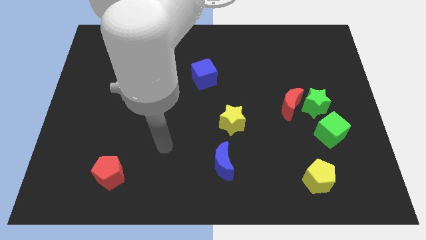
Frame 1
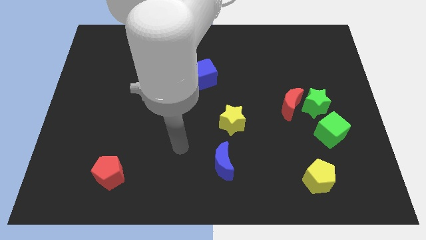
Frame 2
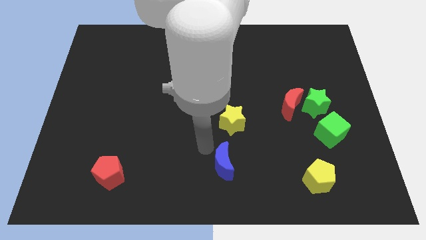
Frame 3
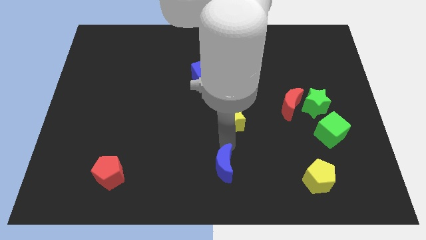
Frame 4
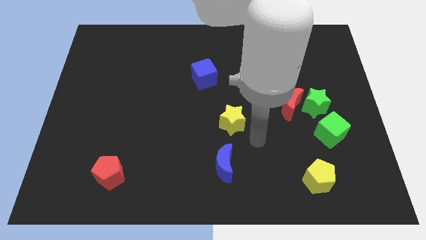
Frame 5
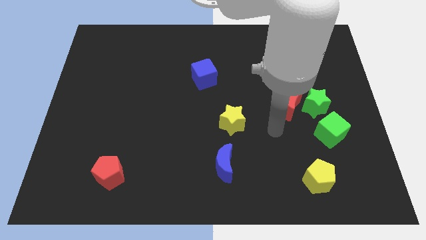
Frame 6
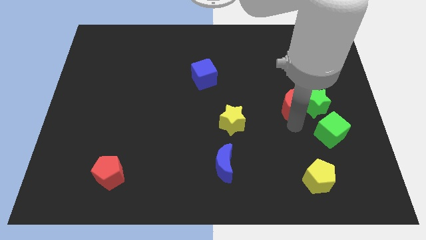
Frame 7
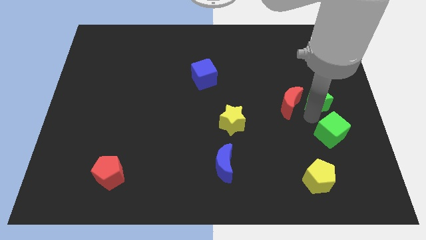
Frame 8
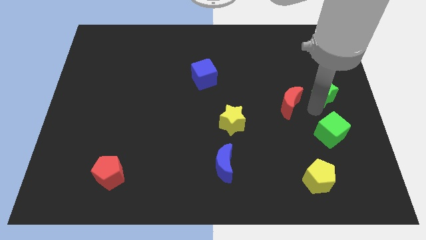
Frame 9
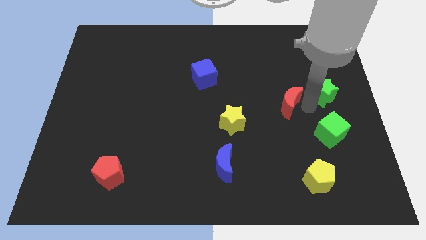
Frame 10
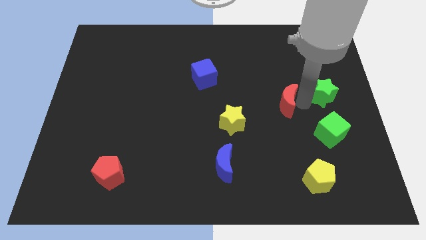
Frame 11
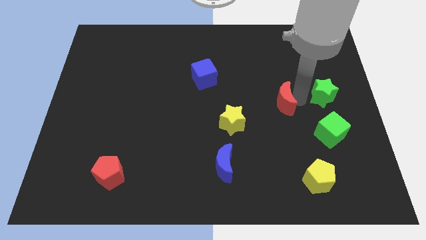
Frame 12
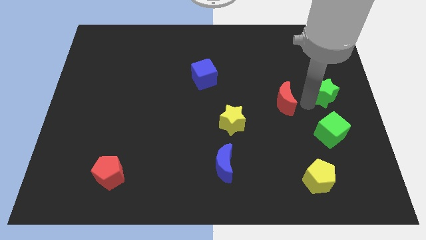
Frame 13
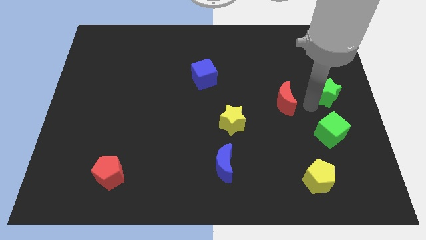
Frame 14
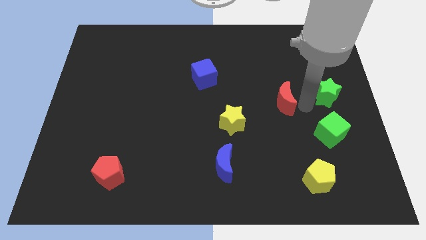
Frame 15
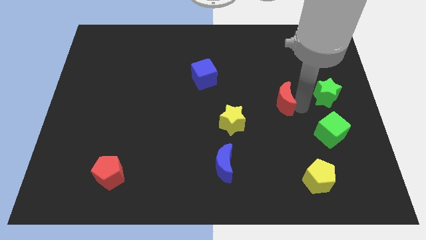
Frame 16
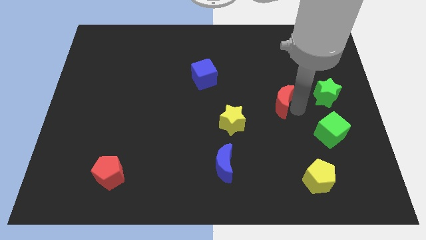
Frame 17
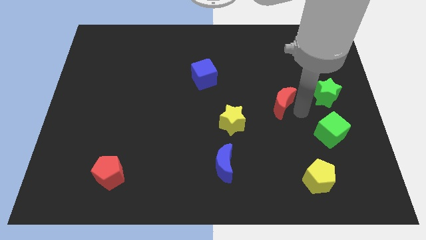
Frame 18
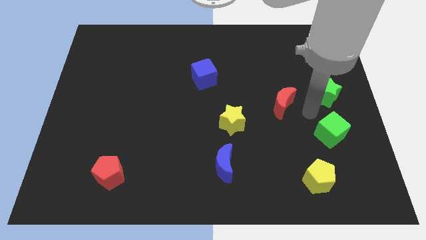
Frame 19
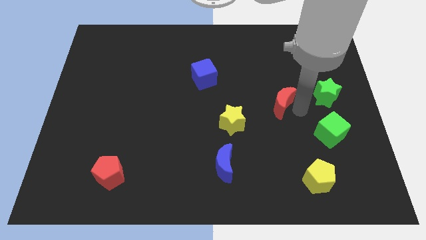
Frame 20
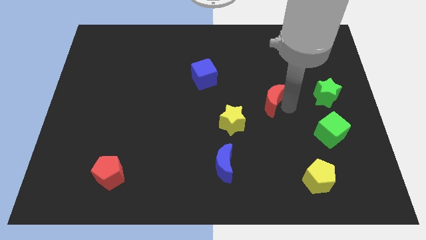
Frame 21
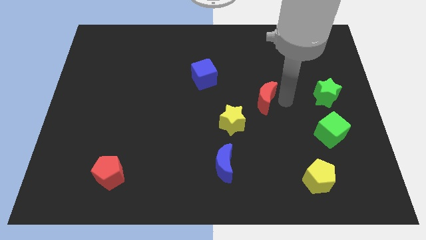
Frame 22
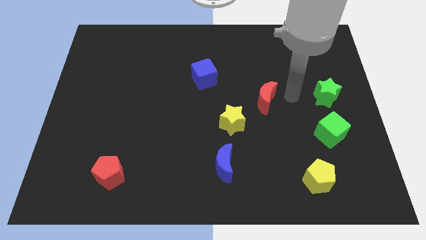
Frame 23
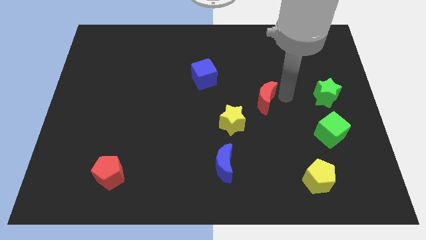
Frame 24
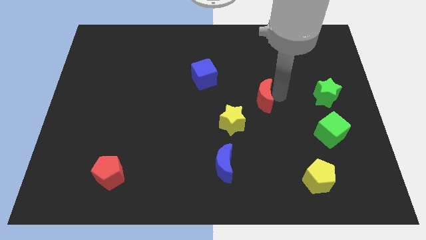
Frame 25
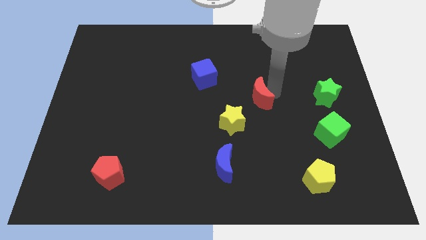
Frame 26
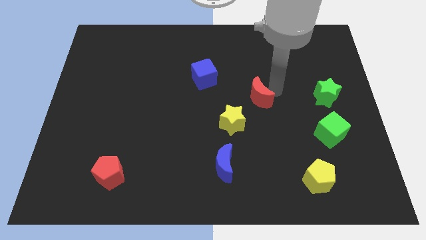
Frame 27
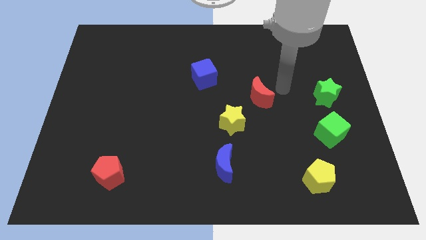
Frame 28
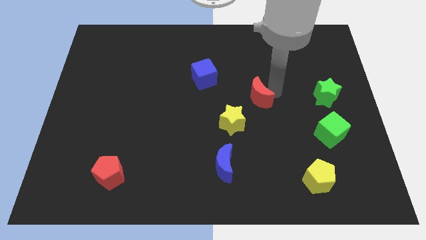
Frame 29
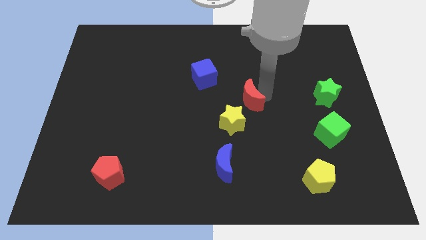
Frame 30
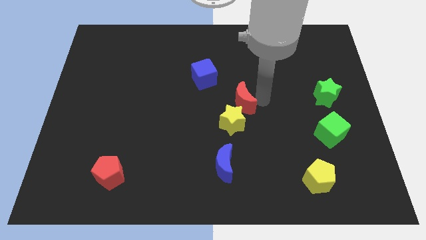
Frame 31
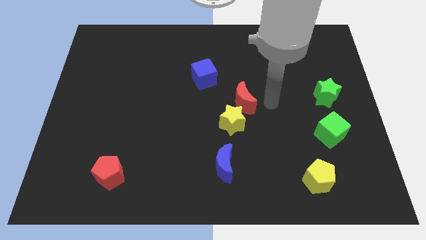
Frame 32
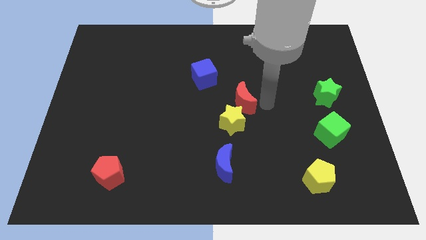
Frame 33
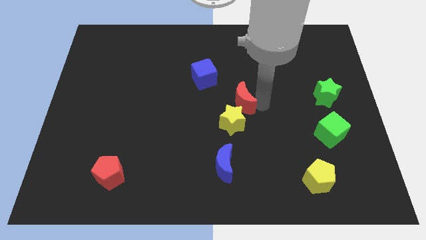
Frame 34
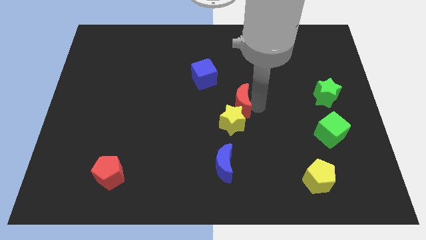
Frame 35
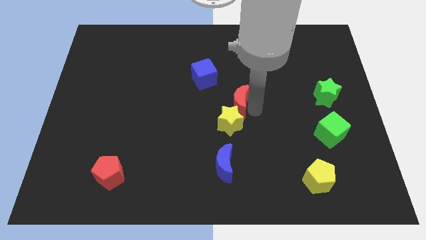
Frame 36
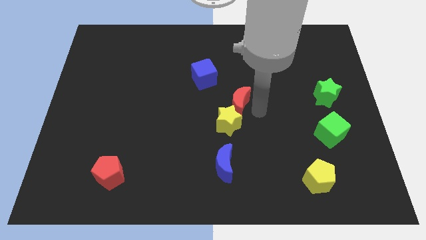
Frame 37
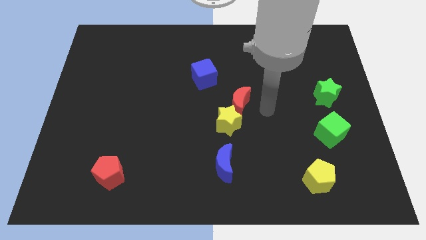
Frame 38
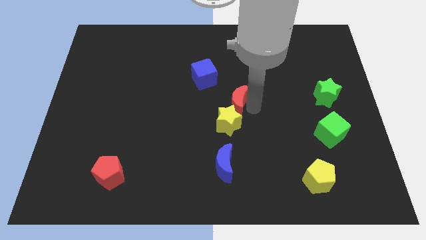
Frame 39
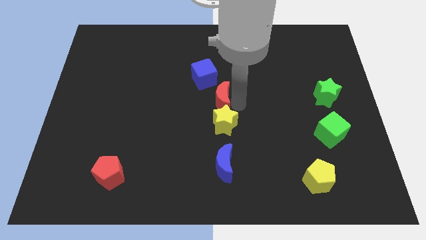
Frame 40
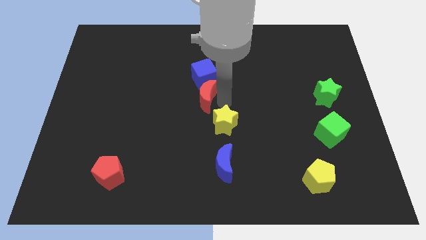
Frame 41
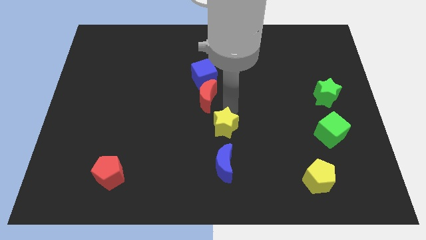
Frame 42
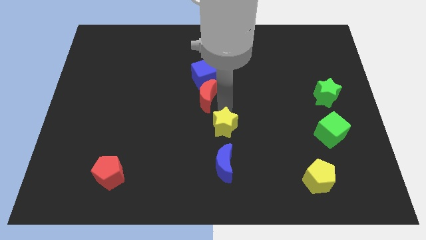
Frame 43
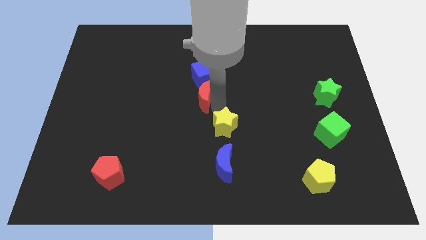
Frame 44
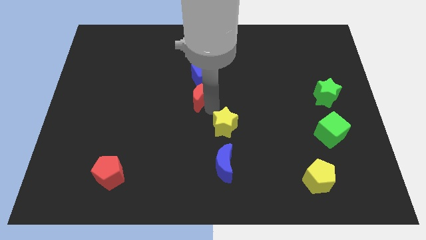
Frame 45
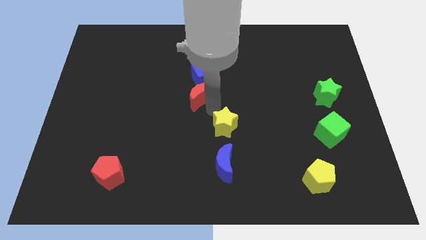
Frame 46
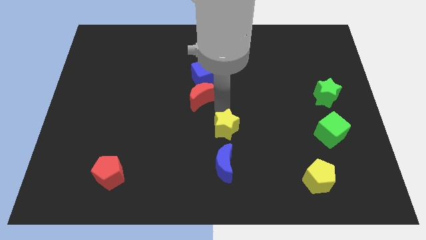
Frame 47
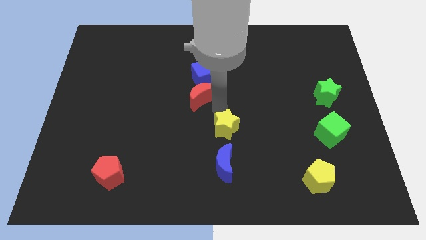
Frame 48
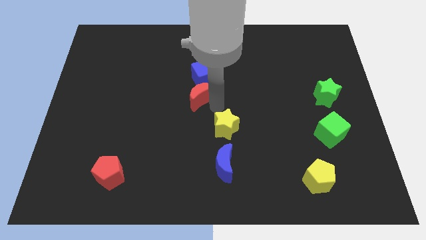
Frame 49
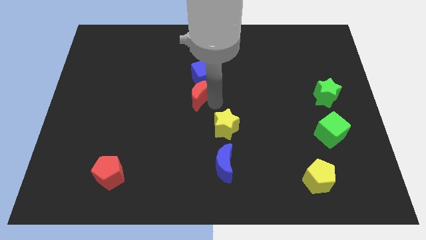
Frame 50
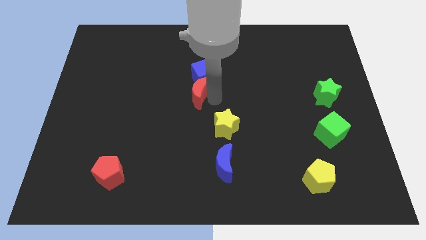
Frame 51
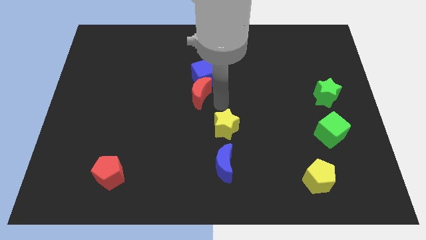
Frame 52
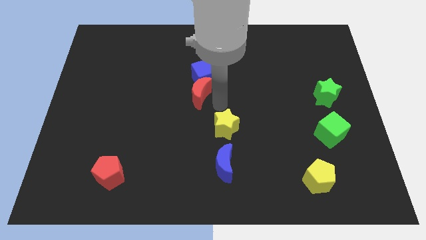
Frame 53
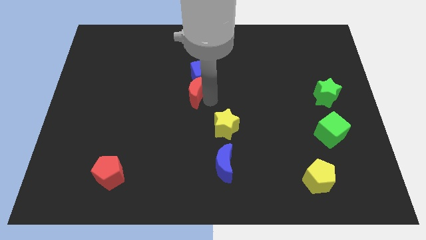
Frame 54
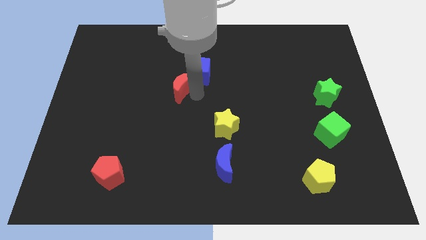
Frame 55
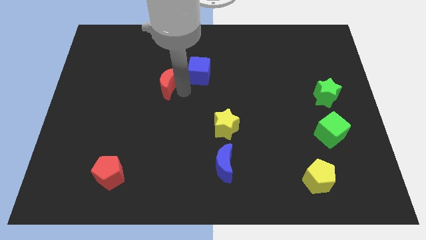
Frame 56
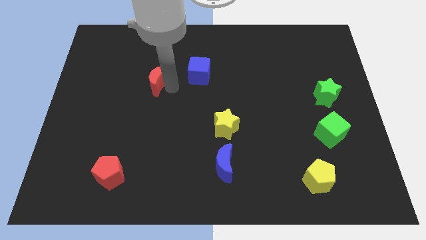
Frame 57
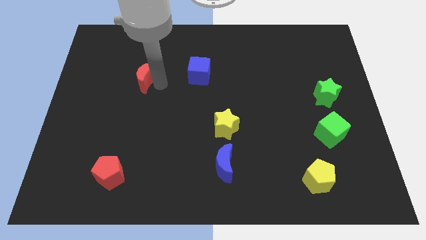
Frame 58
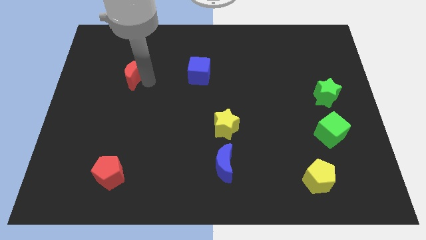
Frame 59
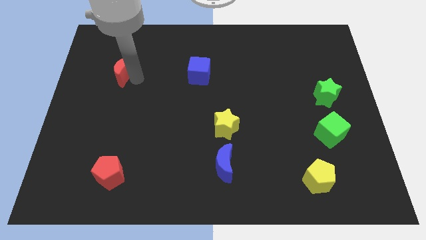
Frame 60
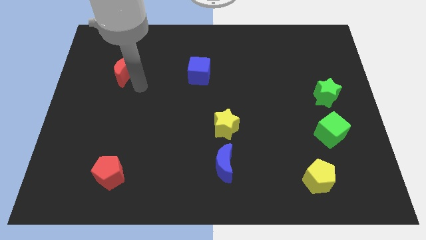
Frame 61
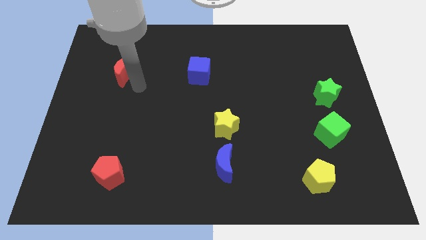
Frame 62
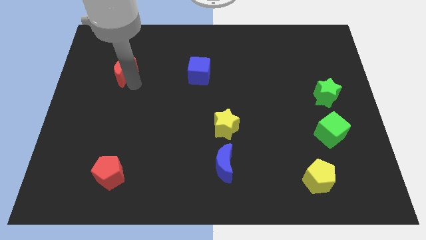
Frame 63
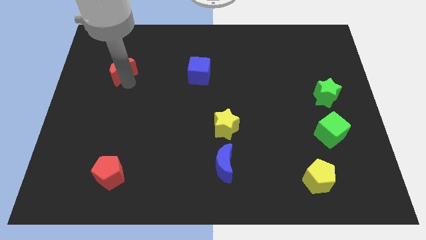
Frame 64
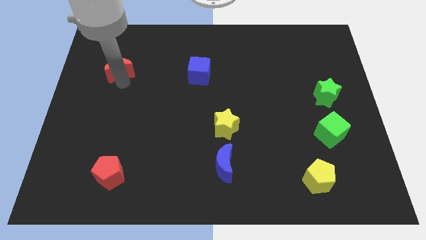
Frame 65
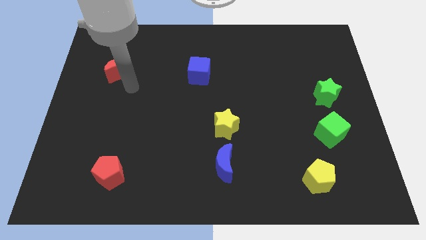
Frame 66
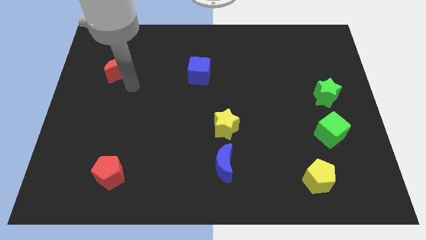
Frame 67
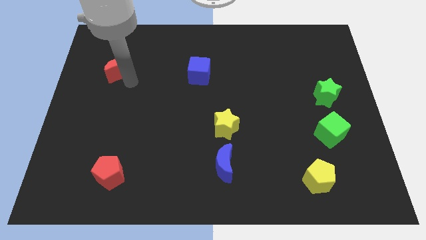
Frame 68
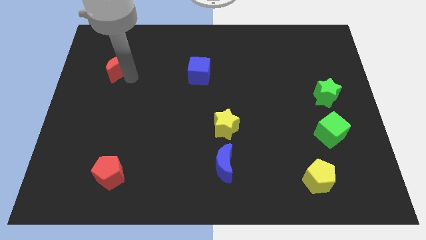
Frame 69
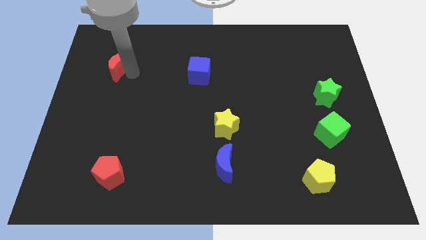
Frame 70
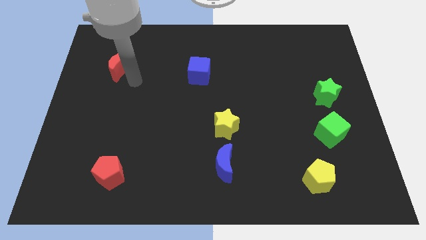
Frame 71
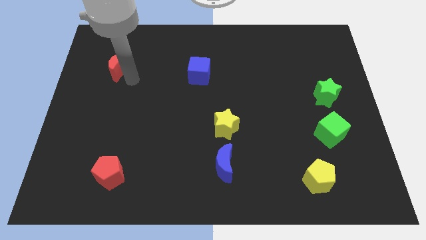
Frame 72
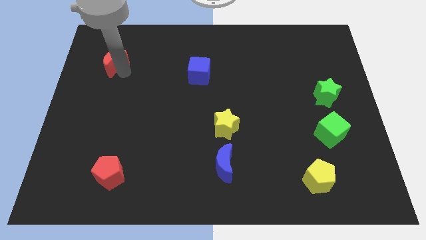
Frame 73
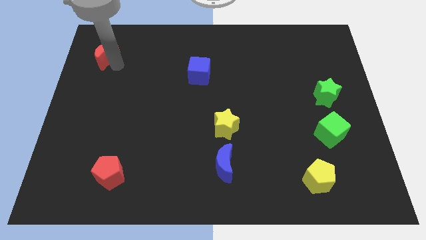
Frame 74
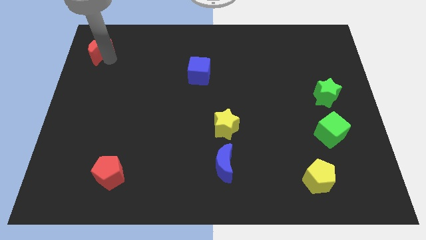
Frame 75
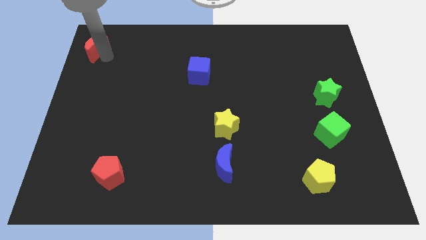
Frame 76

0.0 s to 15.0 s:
push the red moon to the top left

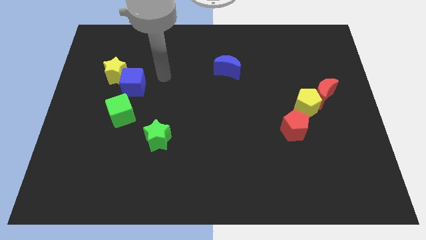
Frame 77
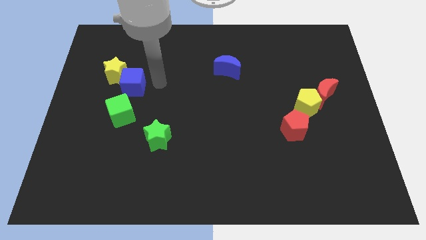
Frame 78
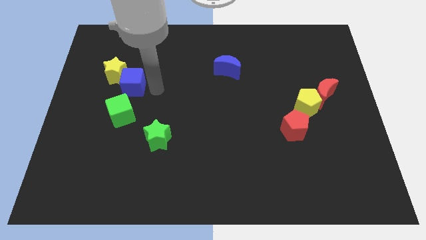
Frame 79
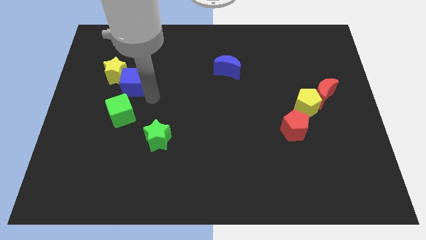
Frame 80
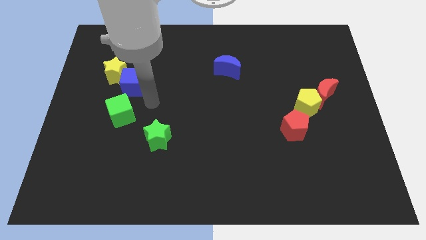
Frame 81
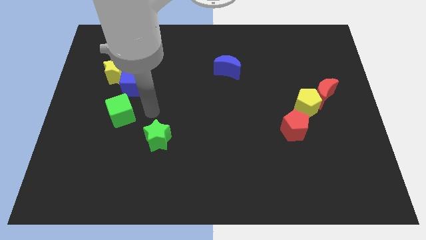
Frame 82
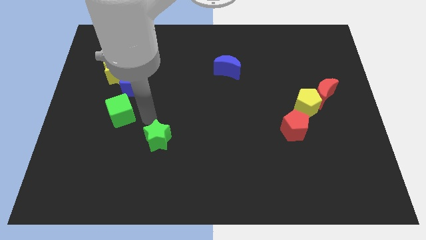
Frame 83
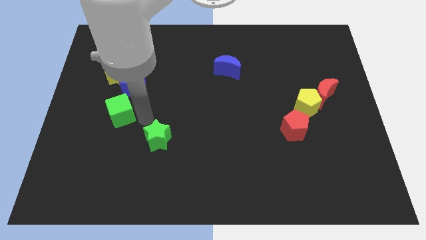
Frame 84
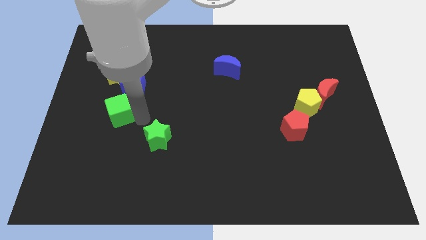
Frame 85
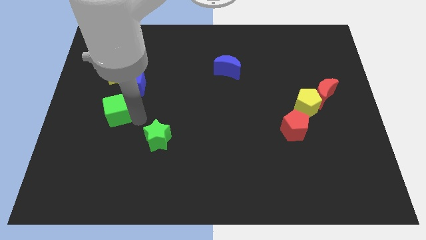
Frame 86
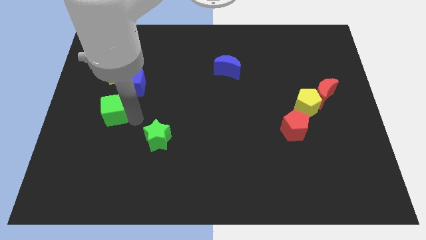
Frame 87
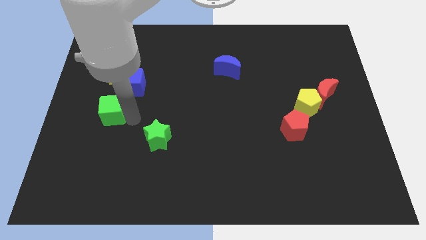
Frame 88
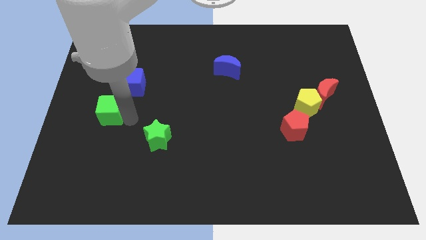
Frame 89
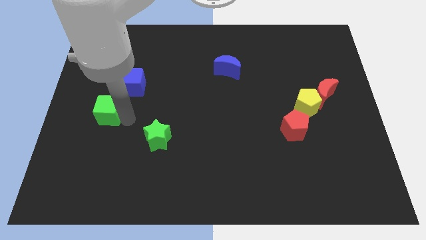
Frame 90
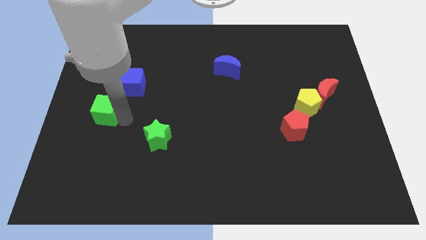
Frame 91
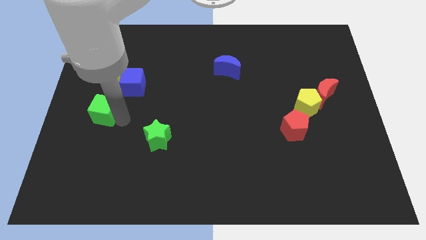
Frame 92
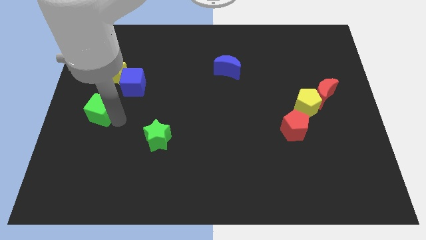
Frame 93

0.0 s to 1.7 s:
push the green cube to the left side
